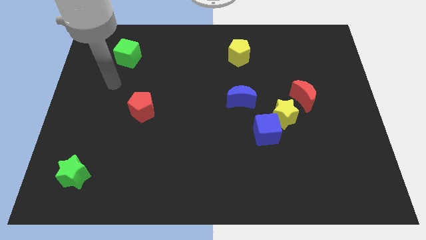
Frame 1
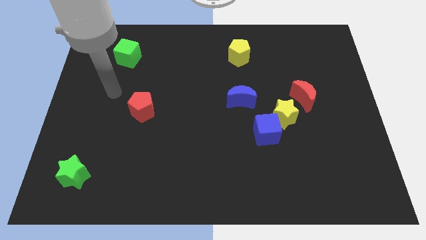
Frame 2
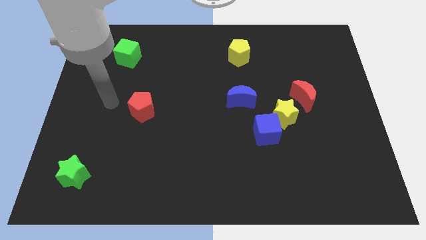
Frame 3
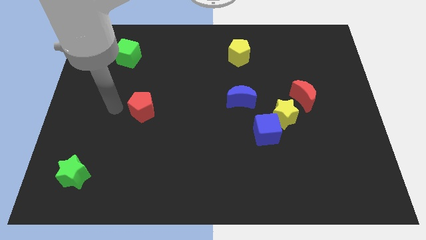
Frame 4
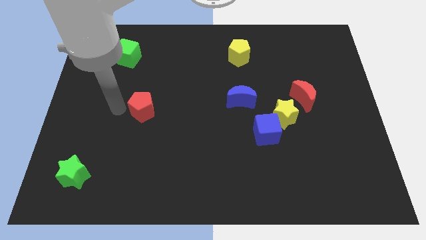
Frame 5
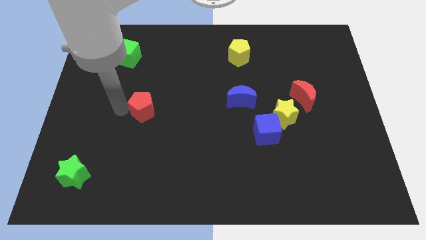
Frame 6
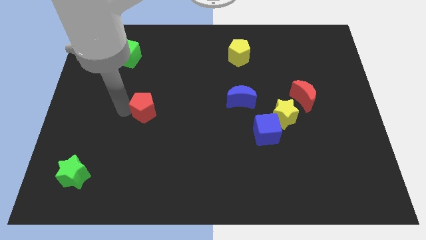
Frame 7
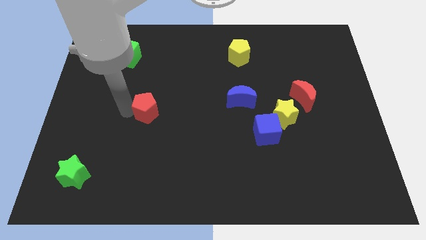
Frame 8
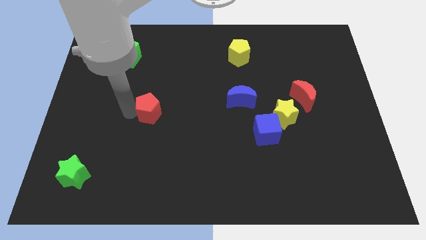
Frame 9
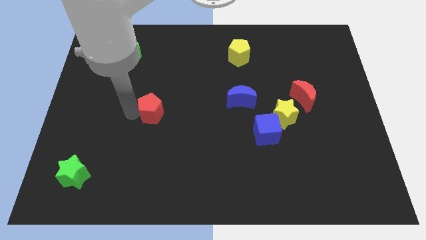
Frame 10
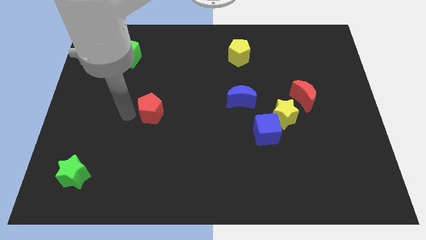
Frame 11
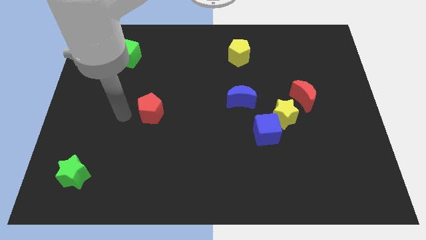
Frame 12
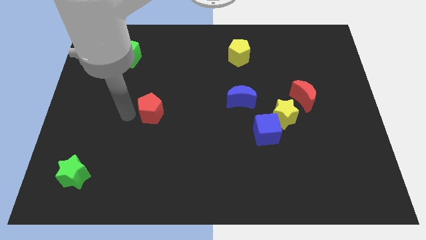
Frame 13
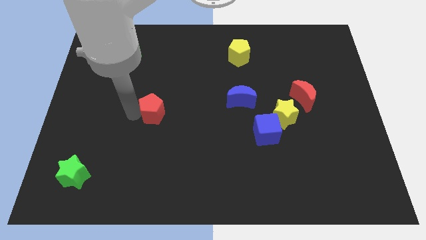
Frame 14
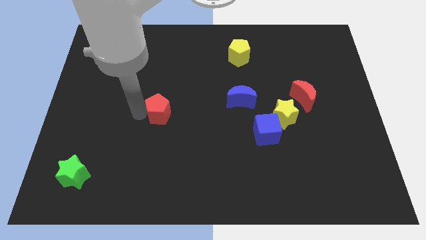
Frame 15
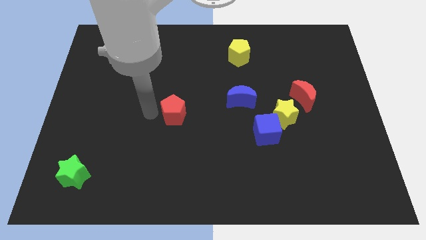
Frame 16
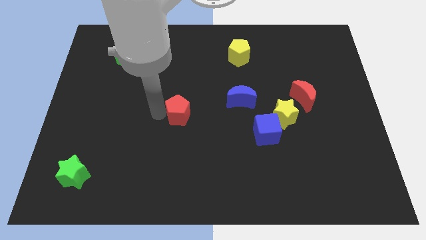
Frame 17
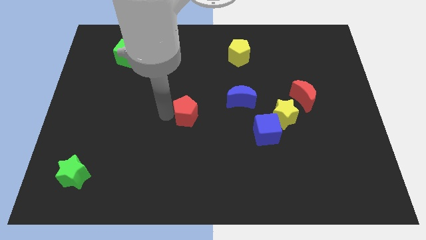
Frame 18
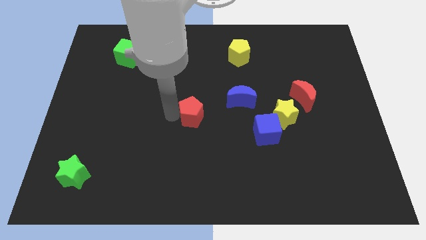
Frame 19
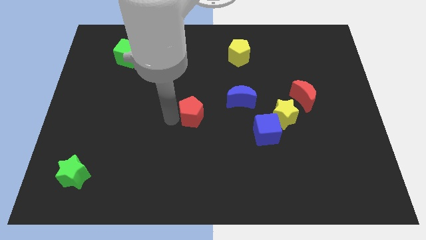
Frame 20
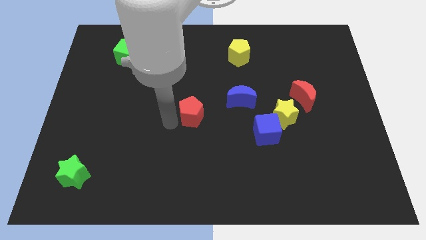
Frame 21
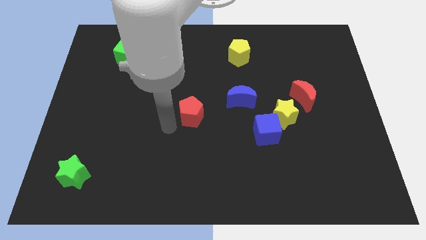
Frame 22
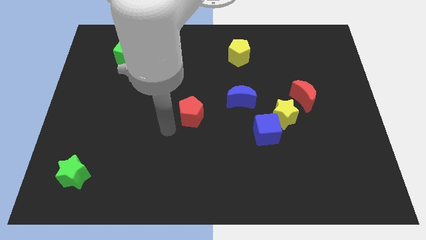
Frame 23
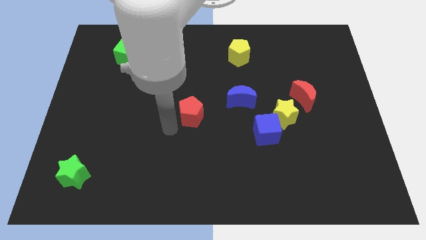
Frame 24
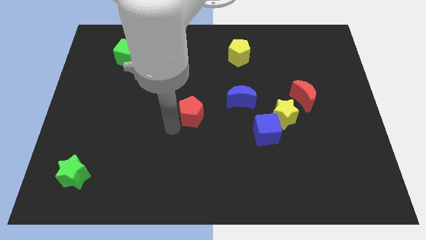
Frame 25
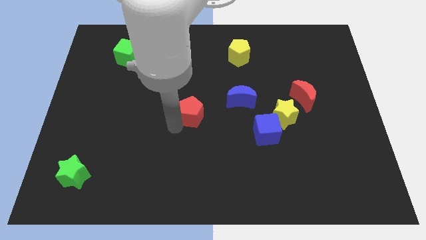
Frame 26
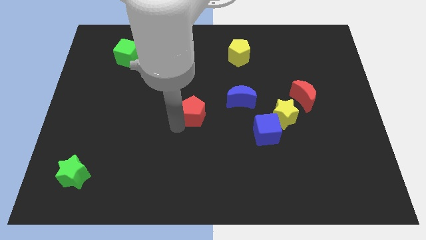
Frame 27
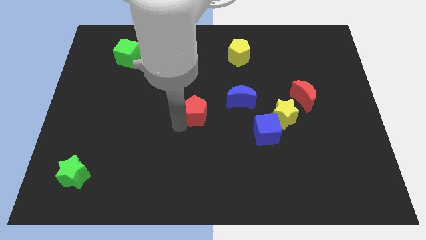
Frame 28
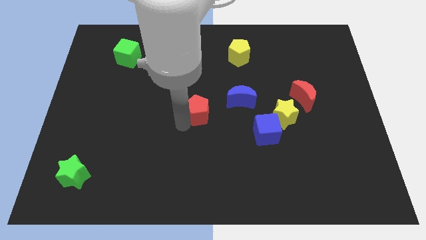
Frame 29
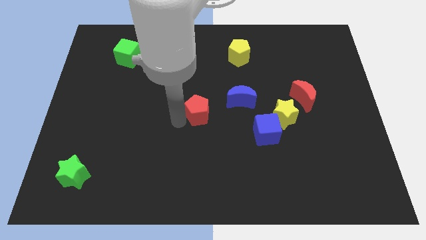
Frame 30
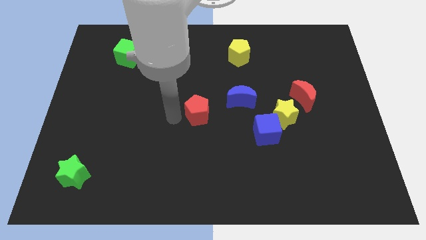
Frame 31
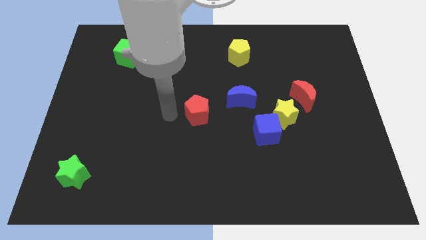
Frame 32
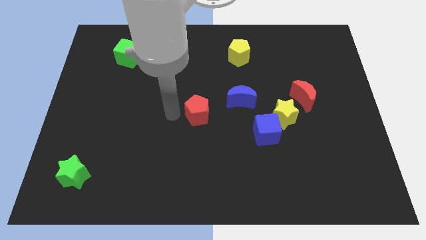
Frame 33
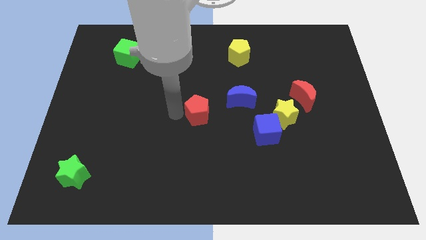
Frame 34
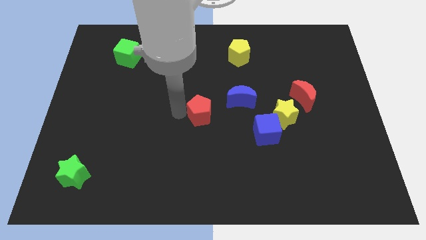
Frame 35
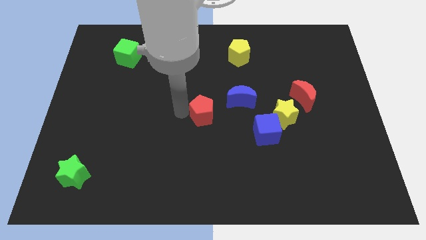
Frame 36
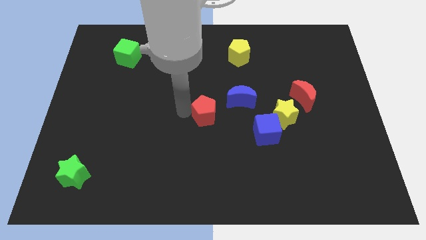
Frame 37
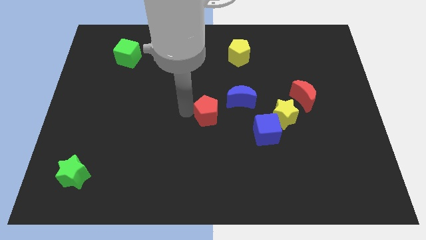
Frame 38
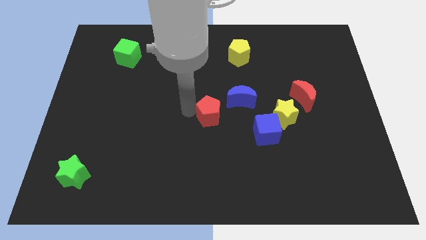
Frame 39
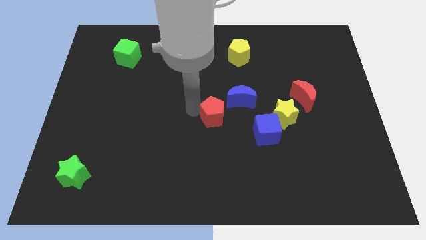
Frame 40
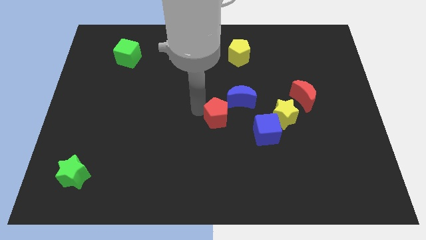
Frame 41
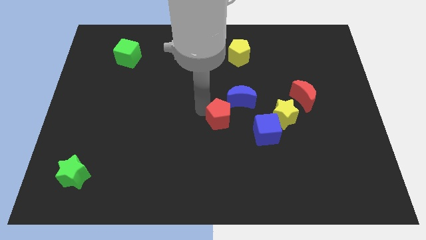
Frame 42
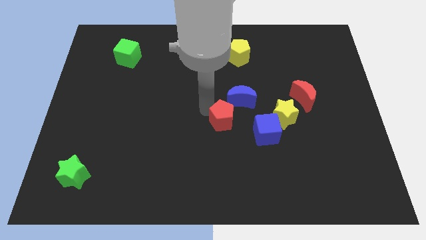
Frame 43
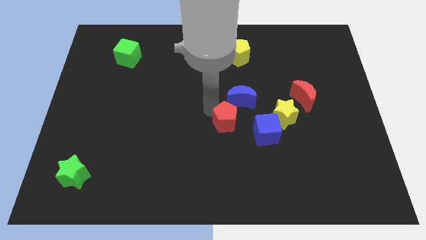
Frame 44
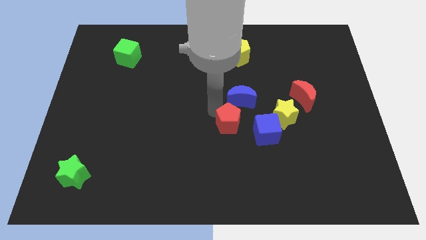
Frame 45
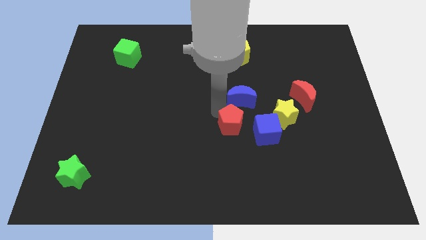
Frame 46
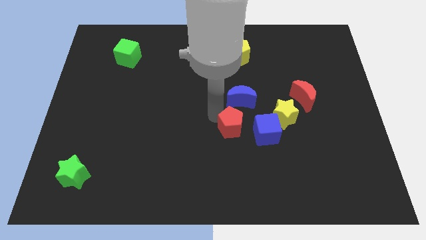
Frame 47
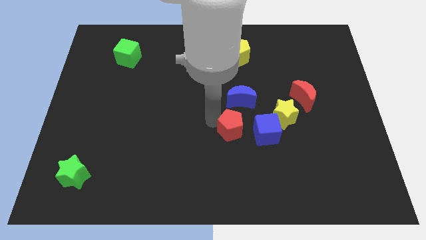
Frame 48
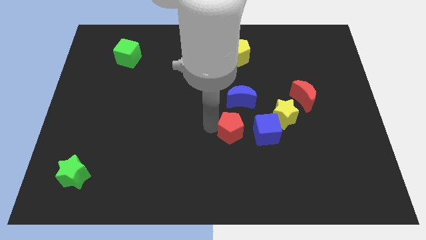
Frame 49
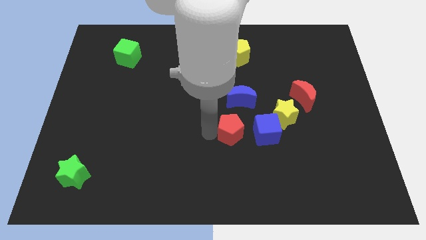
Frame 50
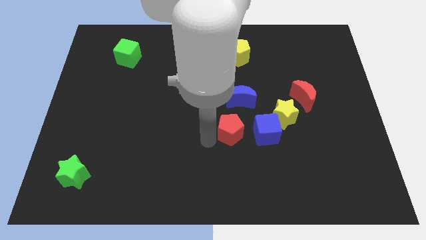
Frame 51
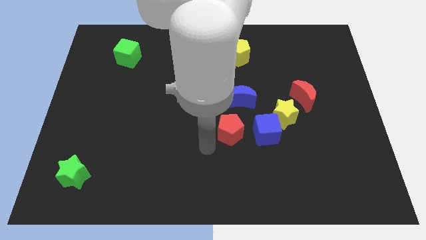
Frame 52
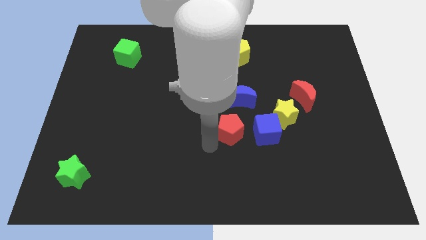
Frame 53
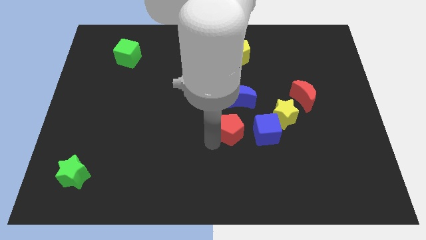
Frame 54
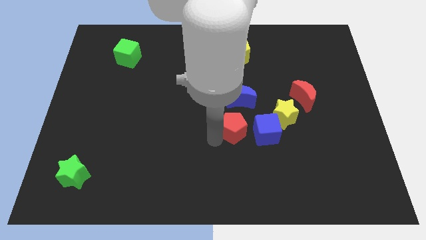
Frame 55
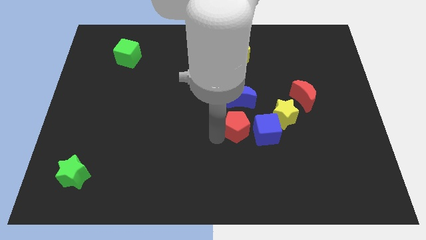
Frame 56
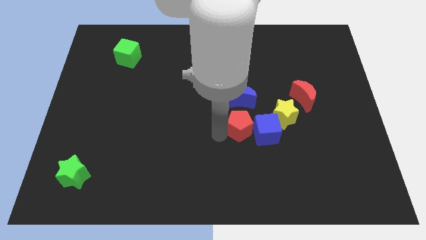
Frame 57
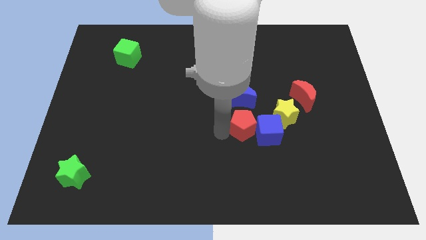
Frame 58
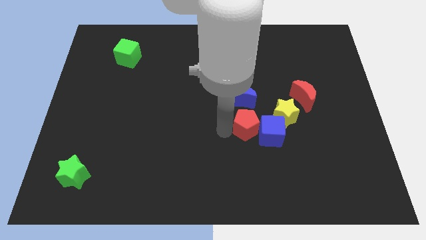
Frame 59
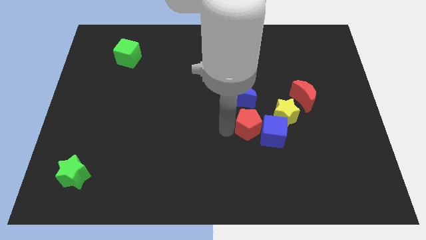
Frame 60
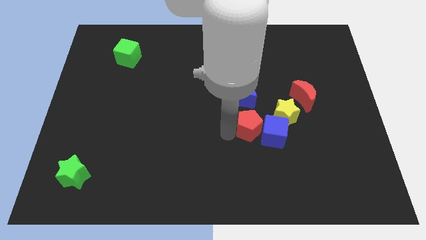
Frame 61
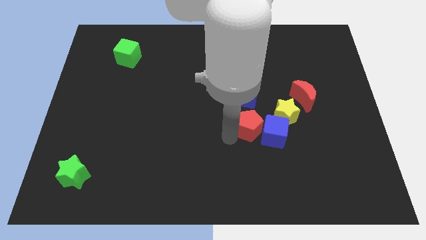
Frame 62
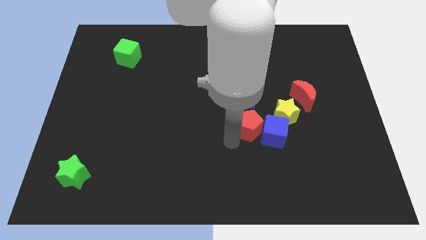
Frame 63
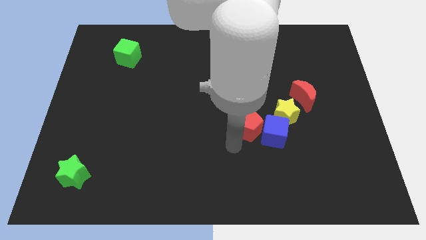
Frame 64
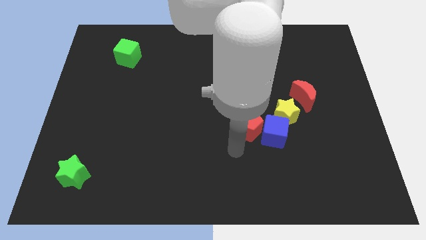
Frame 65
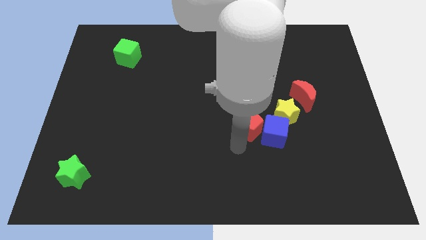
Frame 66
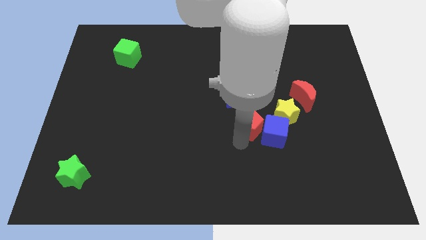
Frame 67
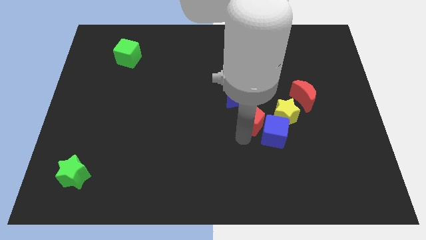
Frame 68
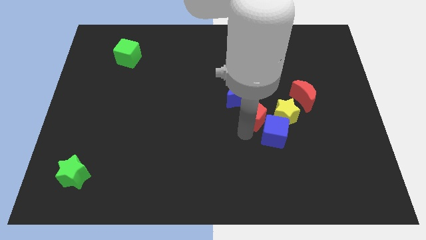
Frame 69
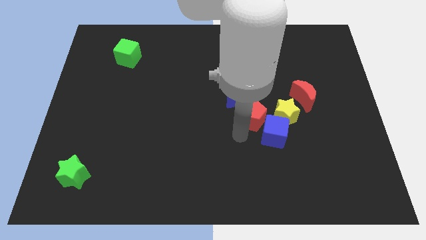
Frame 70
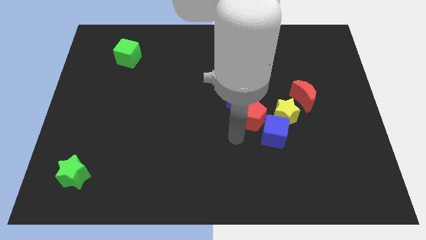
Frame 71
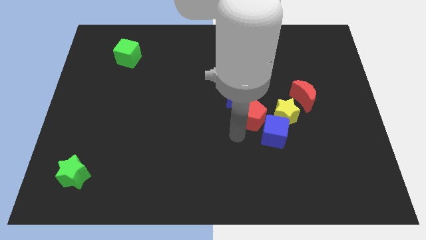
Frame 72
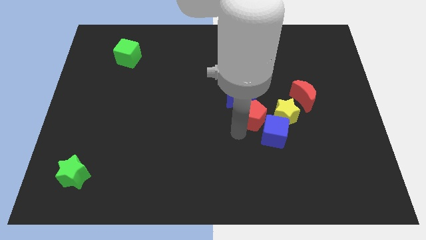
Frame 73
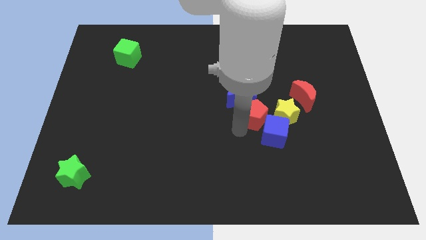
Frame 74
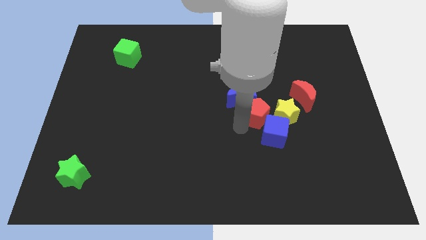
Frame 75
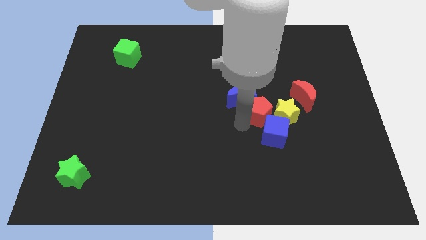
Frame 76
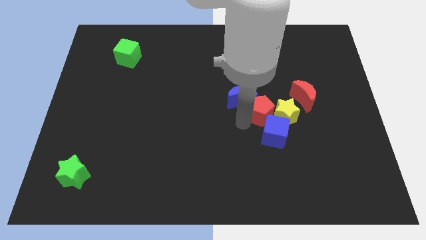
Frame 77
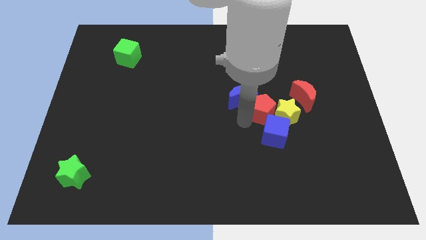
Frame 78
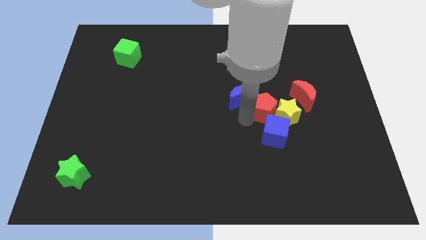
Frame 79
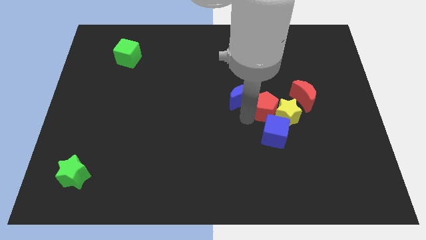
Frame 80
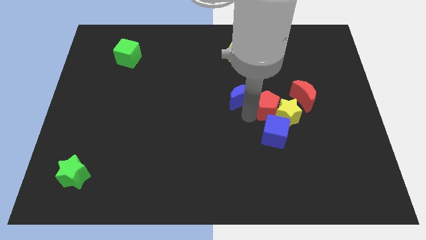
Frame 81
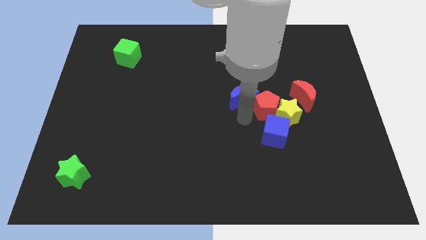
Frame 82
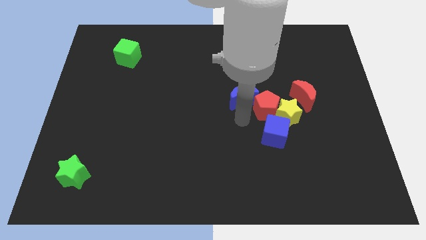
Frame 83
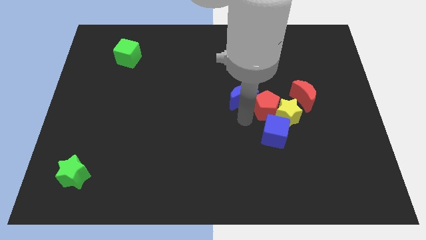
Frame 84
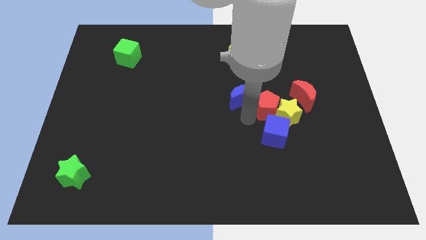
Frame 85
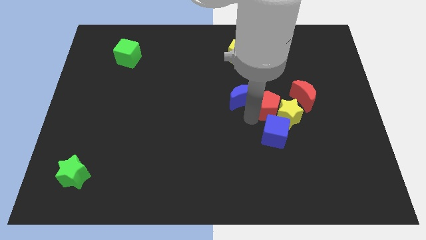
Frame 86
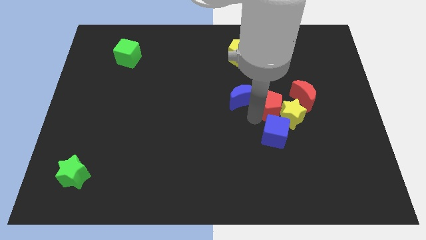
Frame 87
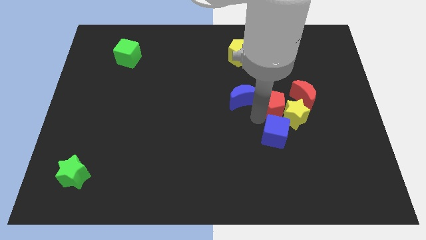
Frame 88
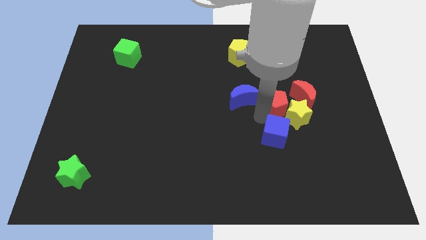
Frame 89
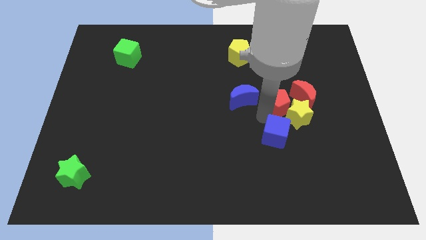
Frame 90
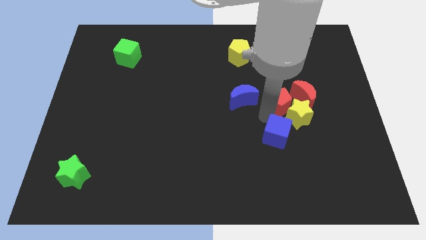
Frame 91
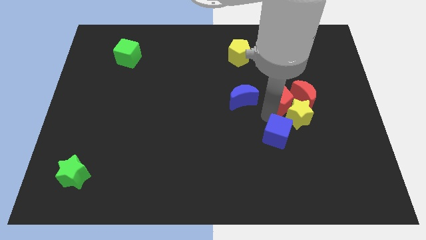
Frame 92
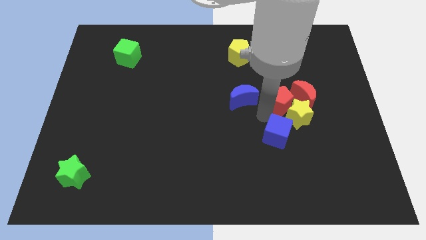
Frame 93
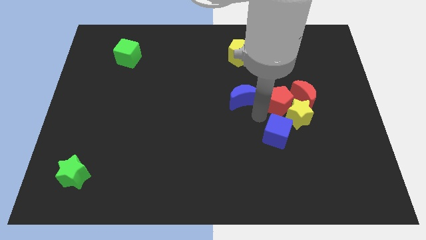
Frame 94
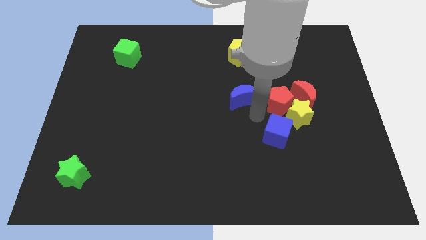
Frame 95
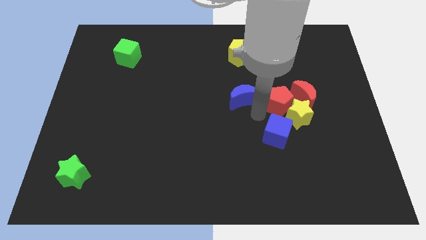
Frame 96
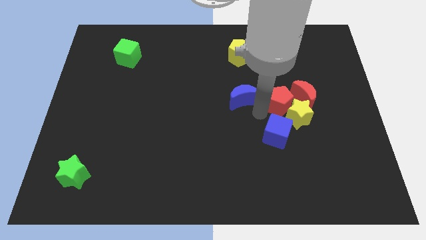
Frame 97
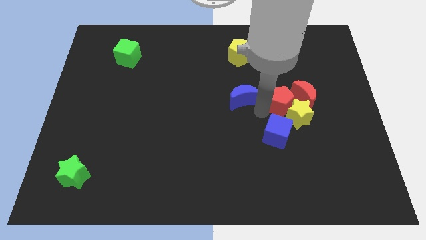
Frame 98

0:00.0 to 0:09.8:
slide the red pentagon towards the red moon
